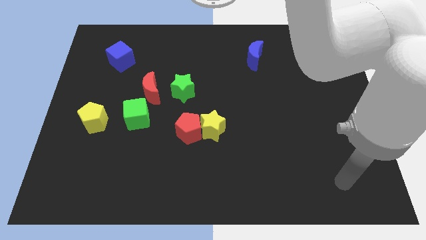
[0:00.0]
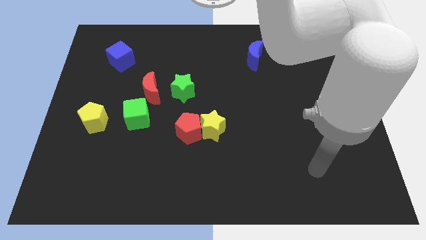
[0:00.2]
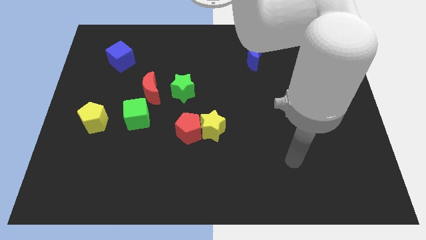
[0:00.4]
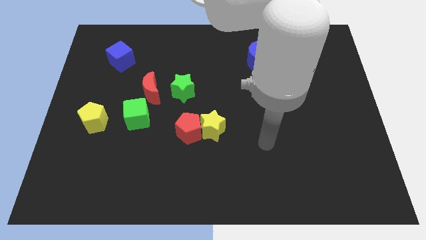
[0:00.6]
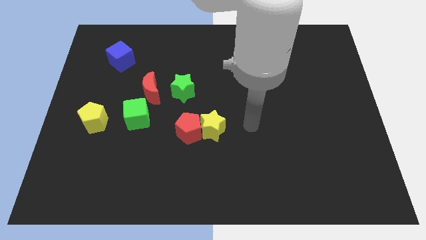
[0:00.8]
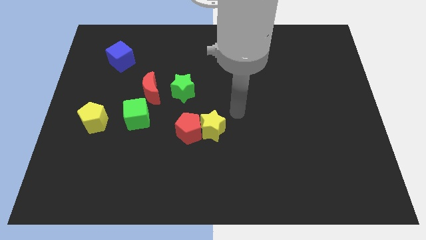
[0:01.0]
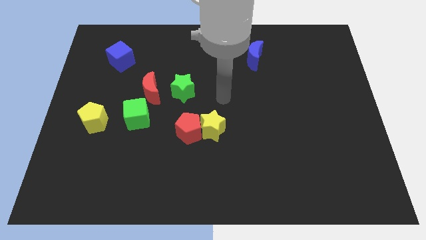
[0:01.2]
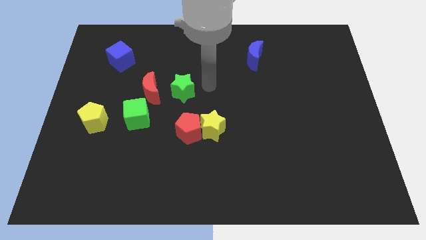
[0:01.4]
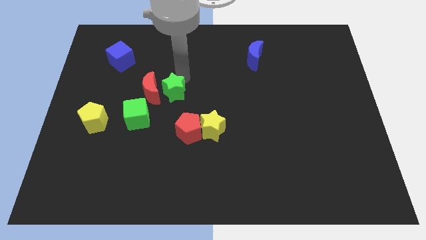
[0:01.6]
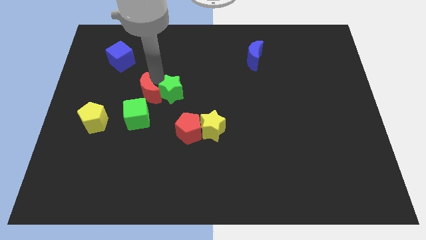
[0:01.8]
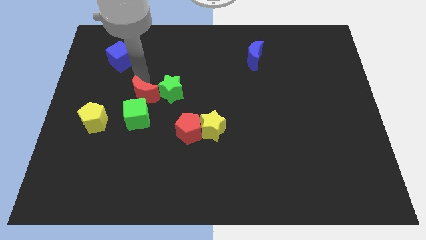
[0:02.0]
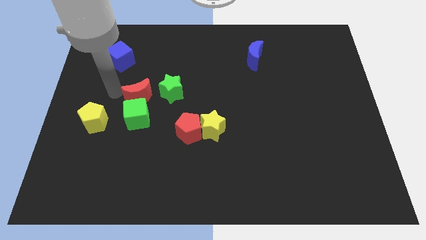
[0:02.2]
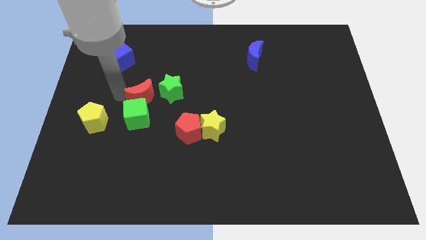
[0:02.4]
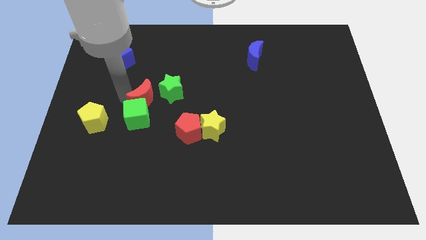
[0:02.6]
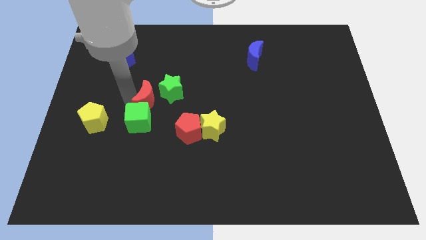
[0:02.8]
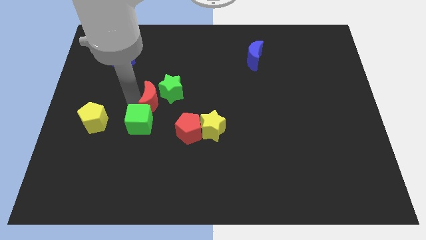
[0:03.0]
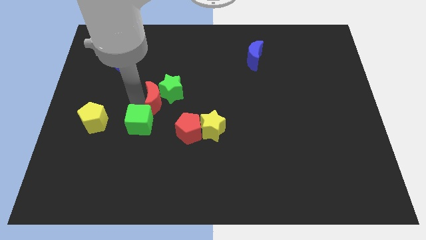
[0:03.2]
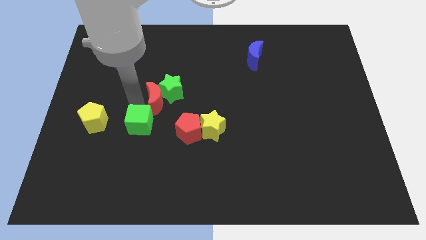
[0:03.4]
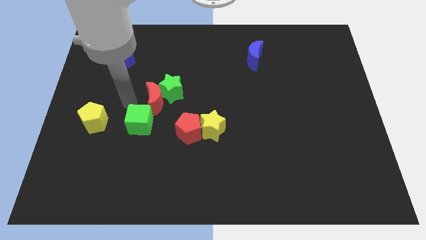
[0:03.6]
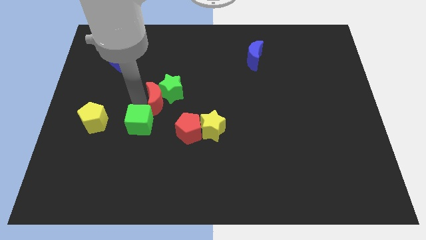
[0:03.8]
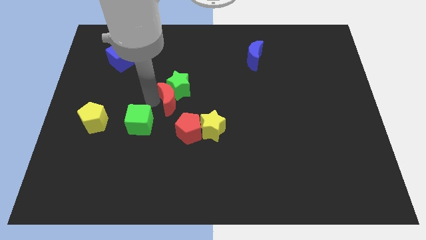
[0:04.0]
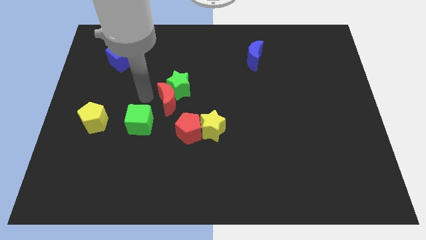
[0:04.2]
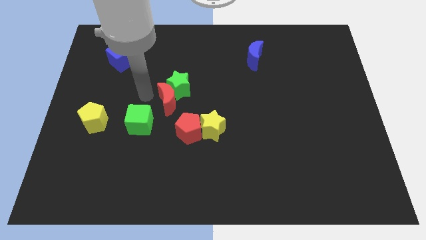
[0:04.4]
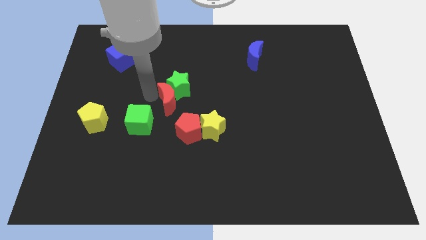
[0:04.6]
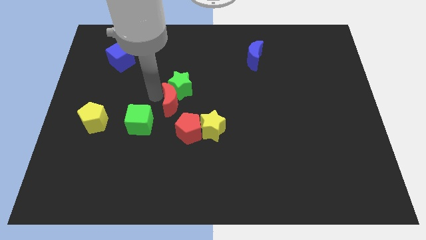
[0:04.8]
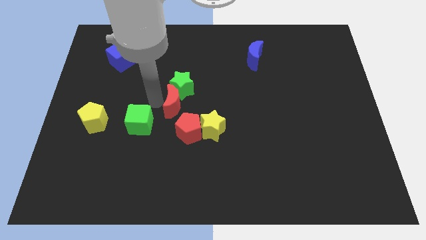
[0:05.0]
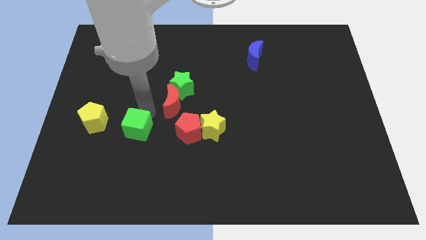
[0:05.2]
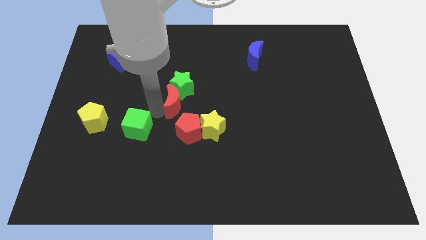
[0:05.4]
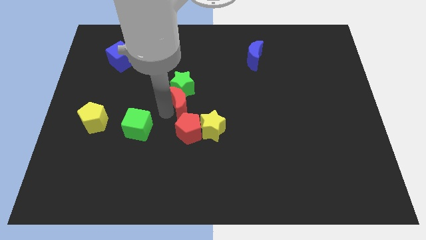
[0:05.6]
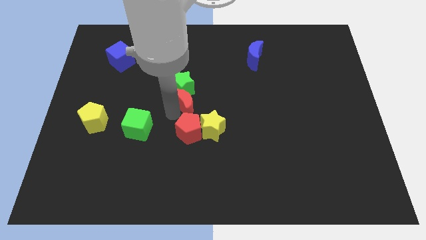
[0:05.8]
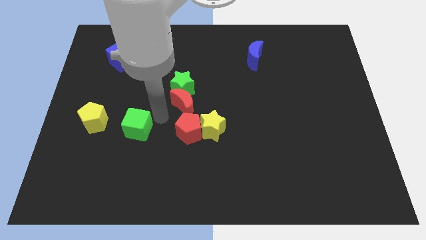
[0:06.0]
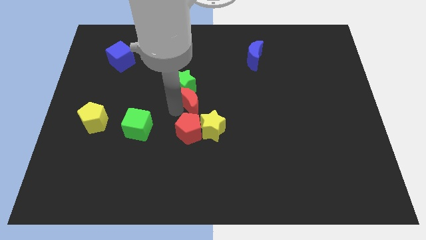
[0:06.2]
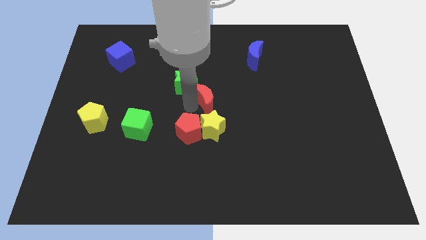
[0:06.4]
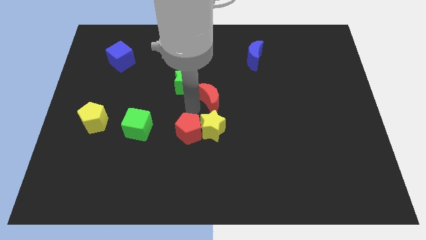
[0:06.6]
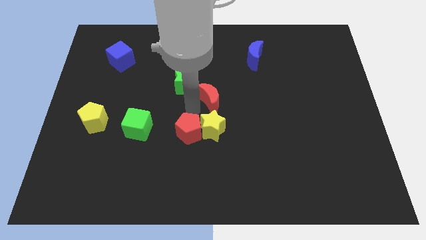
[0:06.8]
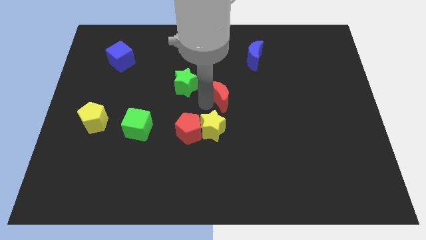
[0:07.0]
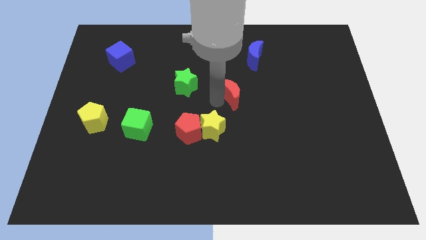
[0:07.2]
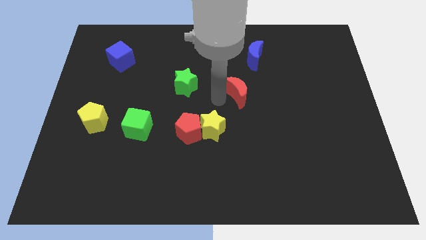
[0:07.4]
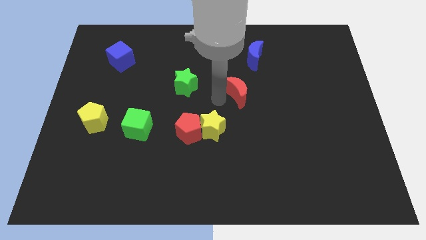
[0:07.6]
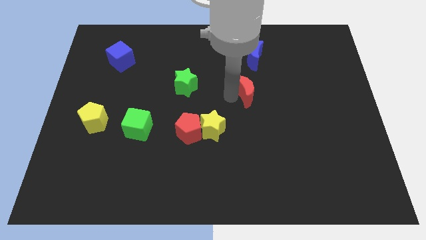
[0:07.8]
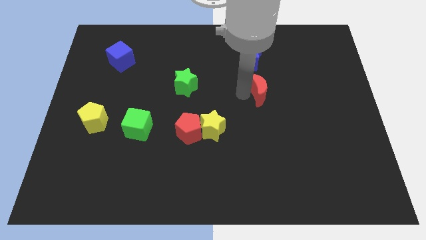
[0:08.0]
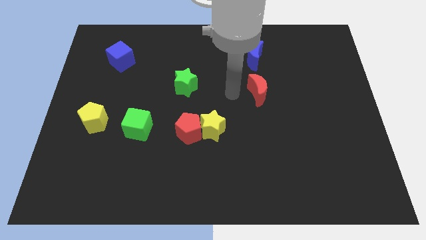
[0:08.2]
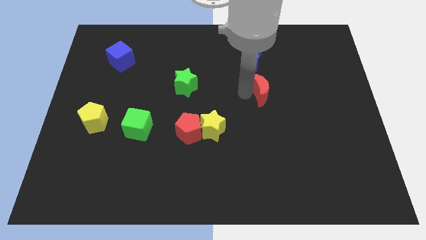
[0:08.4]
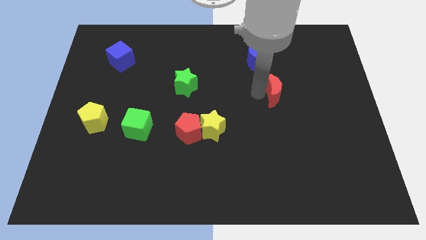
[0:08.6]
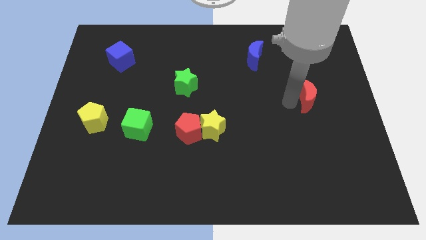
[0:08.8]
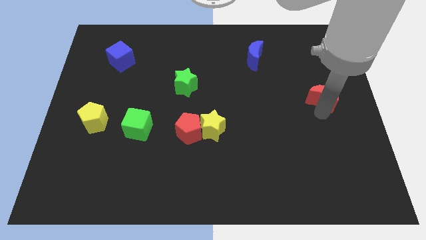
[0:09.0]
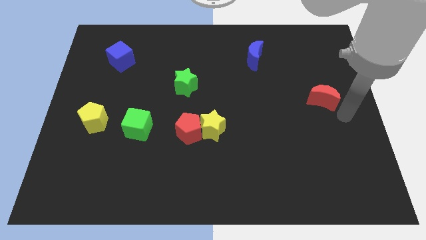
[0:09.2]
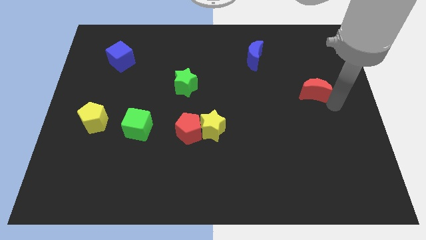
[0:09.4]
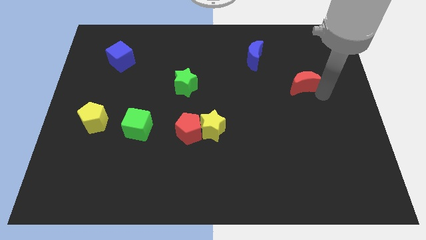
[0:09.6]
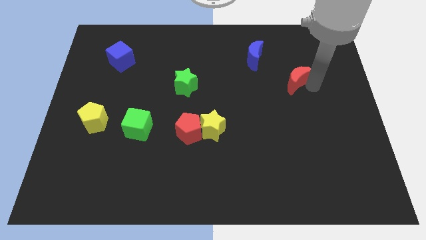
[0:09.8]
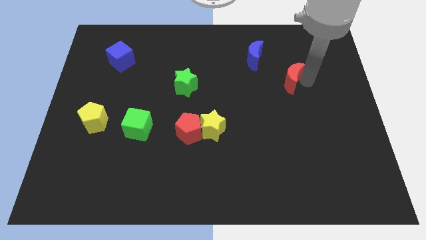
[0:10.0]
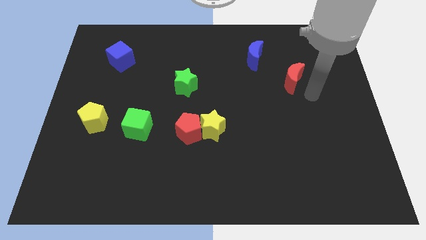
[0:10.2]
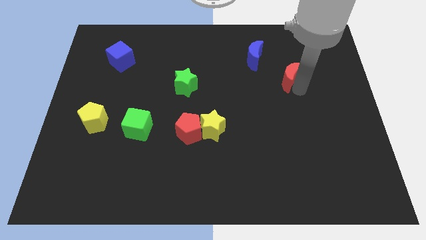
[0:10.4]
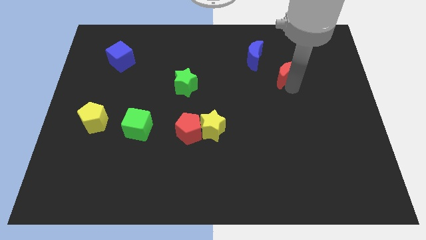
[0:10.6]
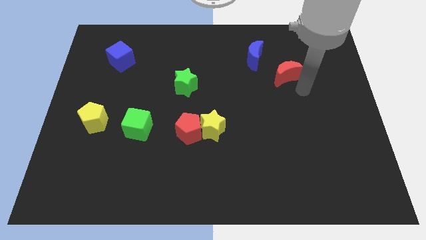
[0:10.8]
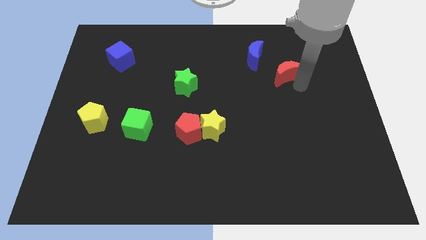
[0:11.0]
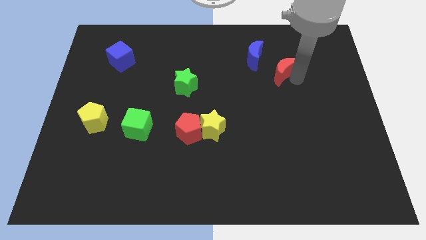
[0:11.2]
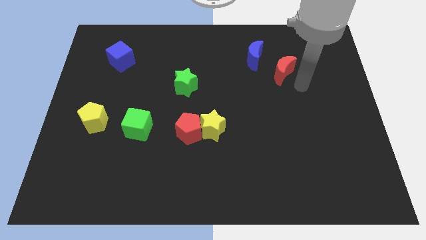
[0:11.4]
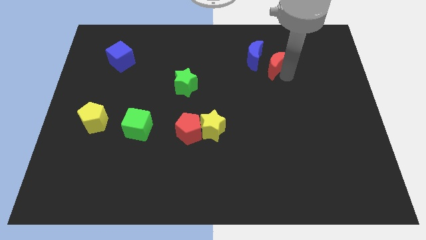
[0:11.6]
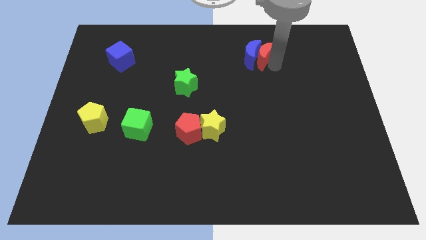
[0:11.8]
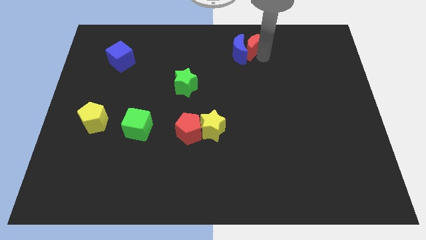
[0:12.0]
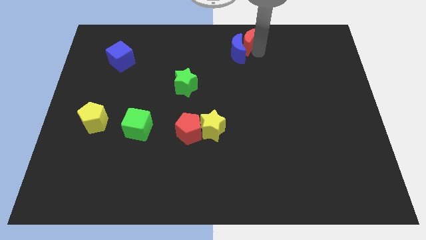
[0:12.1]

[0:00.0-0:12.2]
put the red moon to the towards your base
